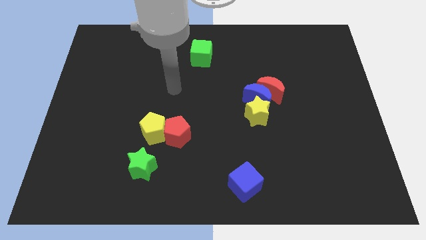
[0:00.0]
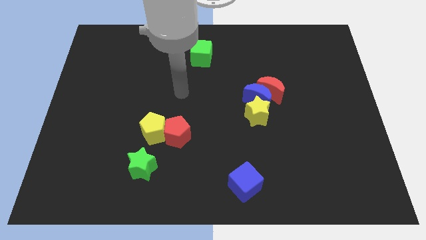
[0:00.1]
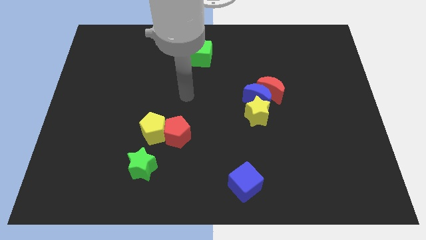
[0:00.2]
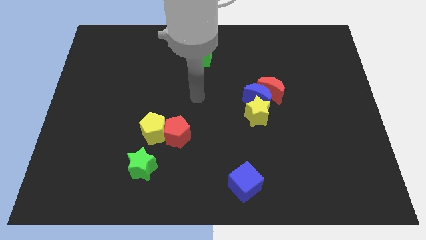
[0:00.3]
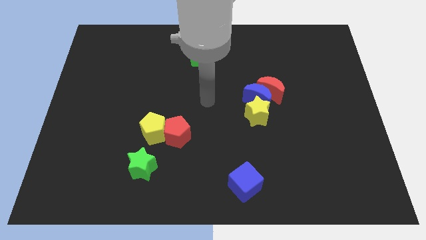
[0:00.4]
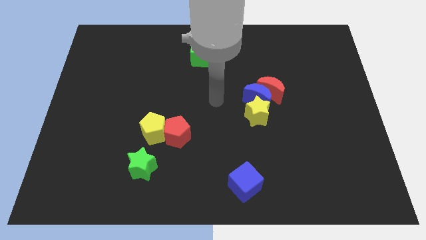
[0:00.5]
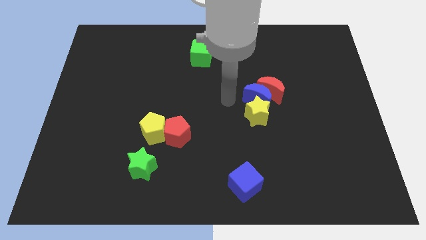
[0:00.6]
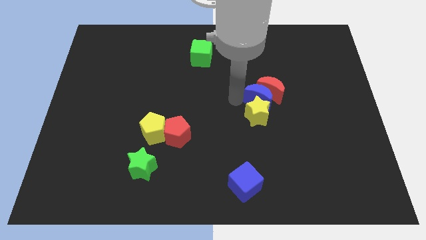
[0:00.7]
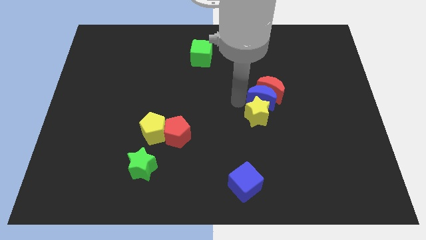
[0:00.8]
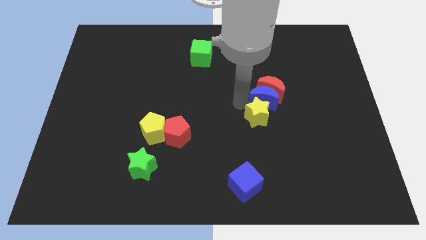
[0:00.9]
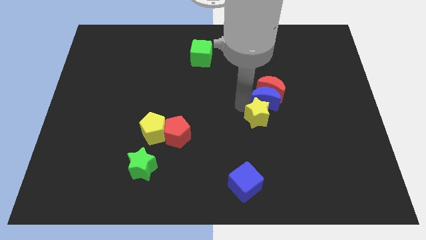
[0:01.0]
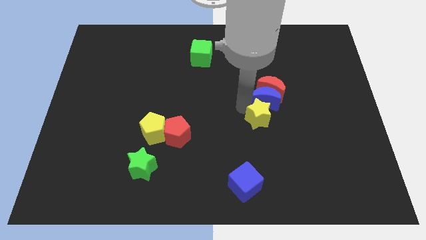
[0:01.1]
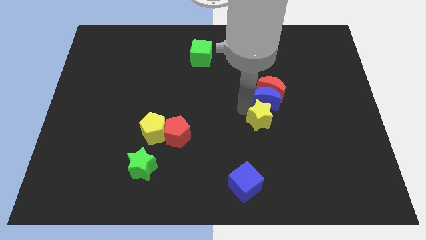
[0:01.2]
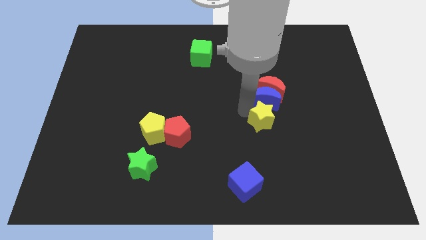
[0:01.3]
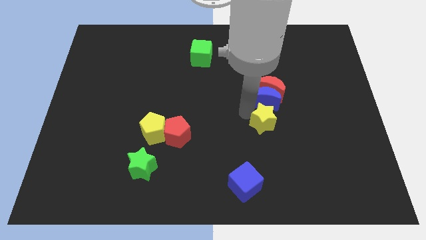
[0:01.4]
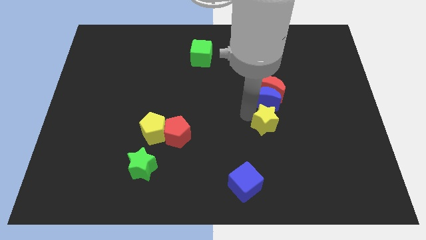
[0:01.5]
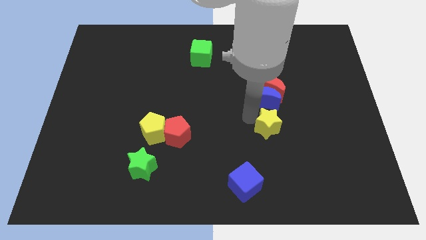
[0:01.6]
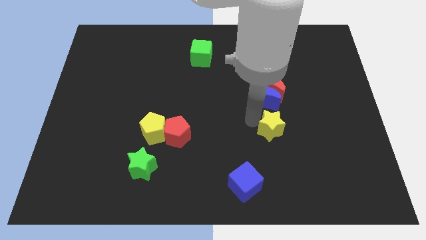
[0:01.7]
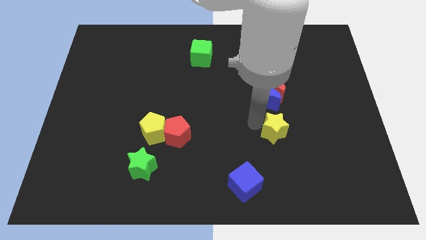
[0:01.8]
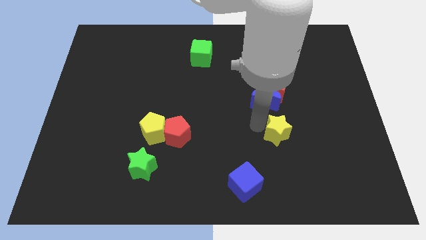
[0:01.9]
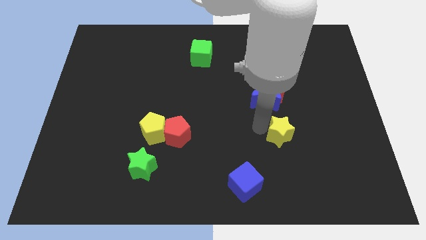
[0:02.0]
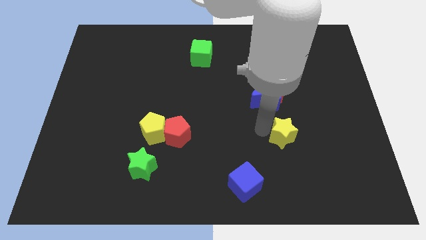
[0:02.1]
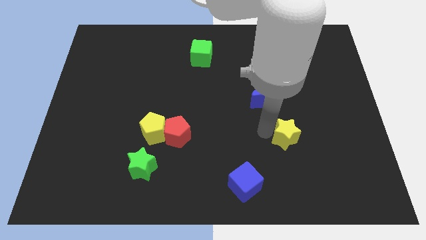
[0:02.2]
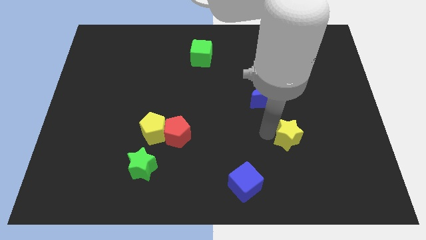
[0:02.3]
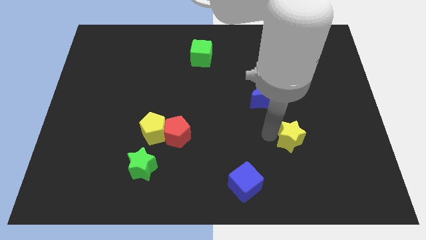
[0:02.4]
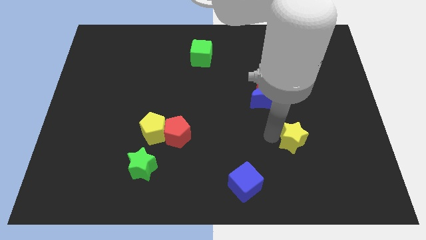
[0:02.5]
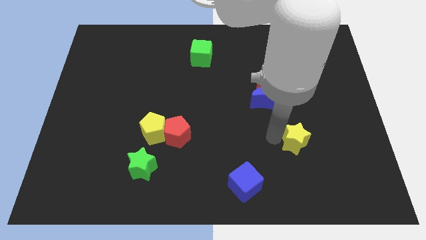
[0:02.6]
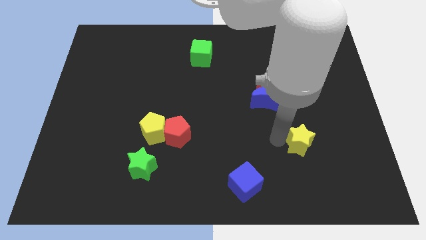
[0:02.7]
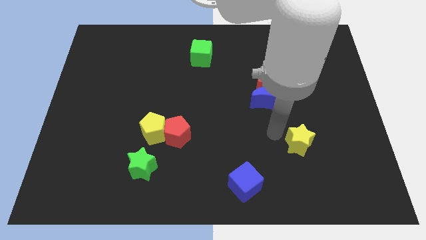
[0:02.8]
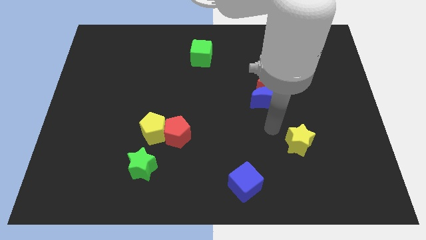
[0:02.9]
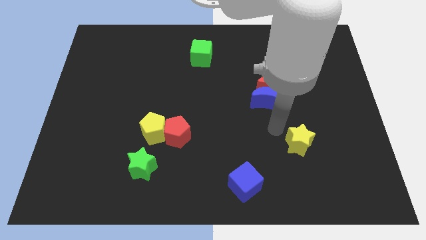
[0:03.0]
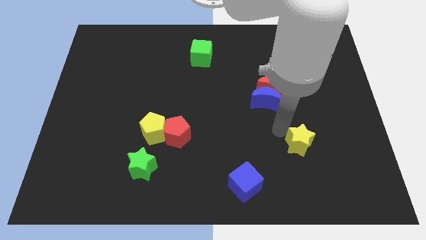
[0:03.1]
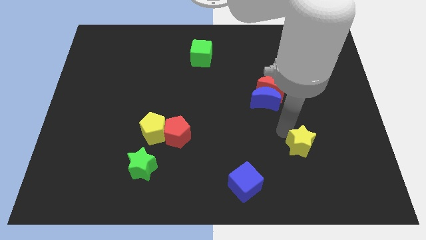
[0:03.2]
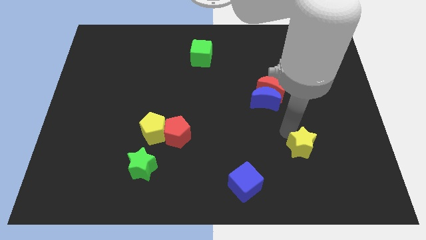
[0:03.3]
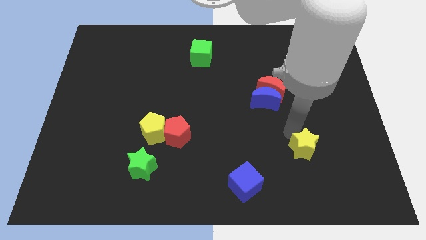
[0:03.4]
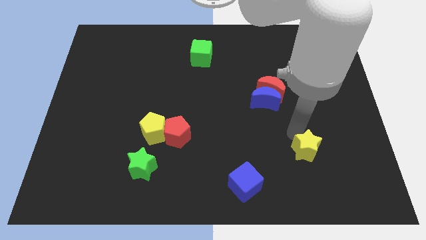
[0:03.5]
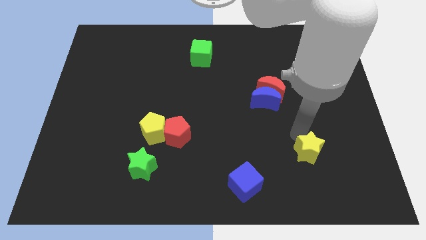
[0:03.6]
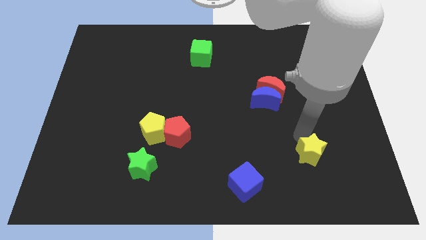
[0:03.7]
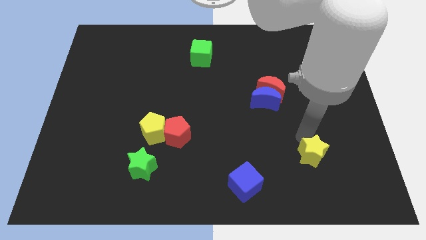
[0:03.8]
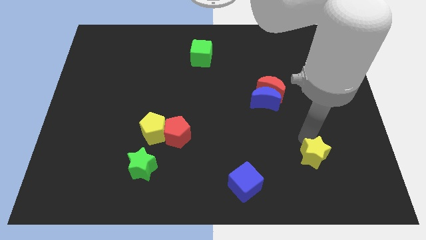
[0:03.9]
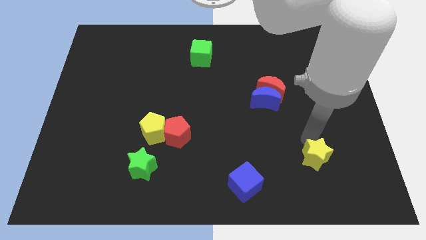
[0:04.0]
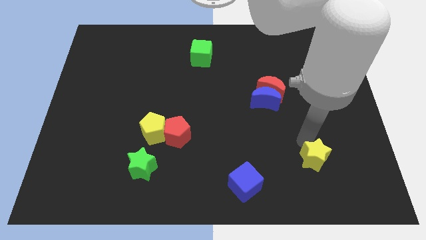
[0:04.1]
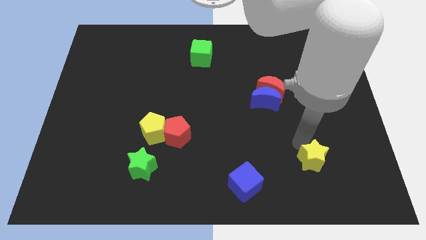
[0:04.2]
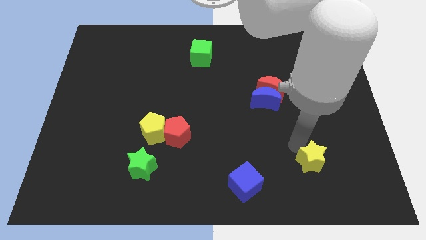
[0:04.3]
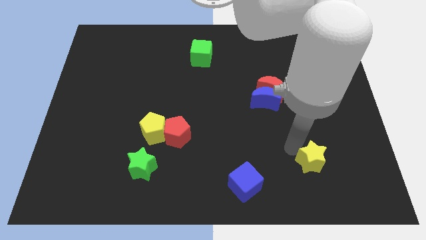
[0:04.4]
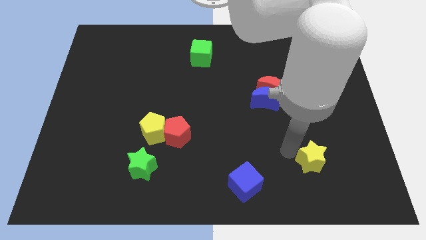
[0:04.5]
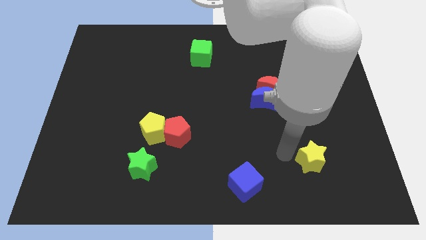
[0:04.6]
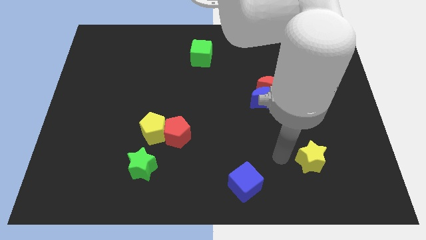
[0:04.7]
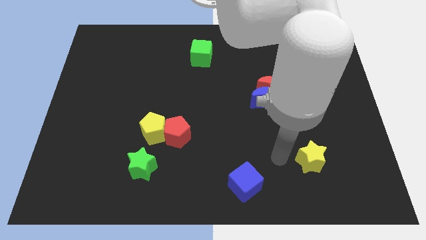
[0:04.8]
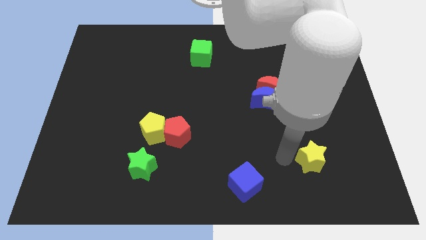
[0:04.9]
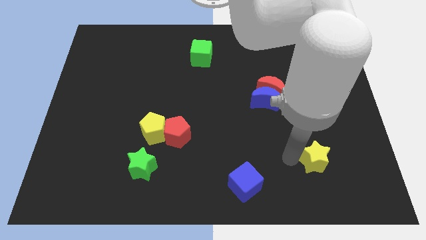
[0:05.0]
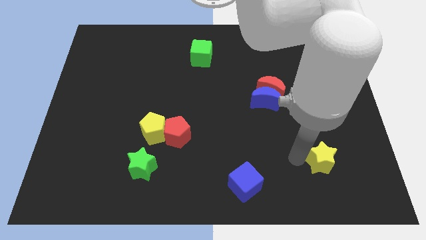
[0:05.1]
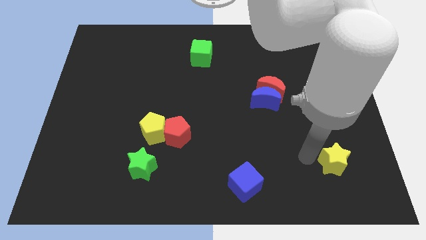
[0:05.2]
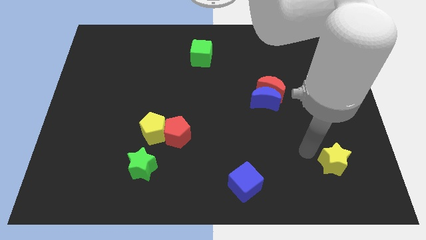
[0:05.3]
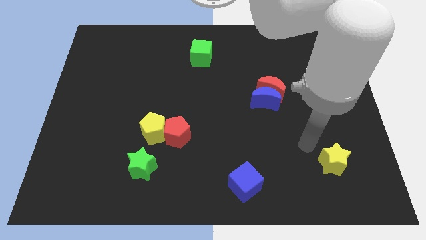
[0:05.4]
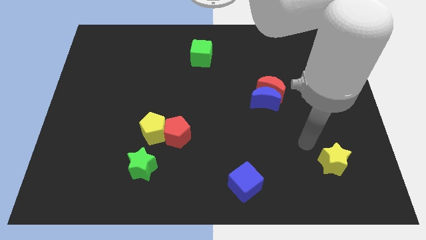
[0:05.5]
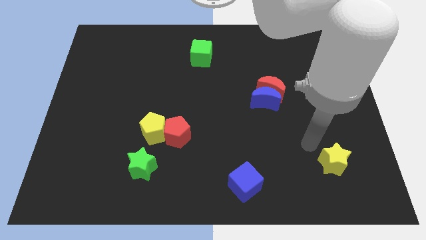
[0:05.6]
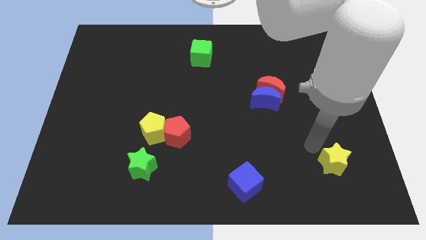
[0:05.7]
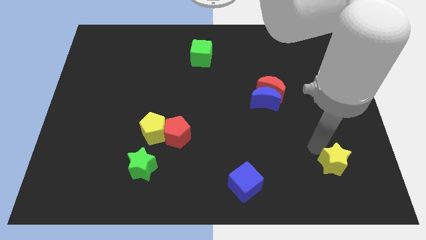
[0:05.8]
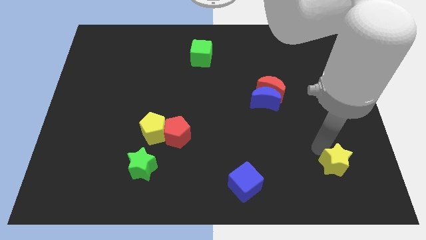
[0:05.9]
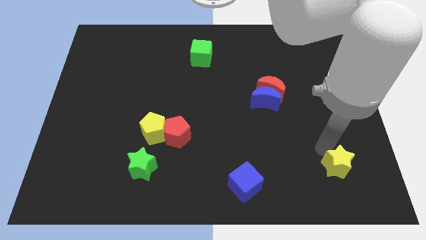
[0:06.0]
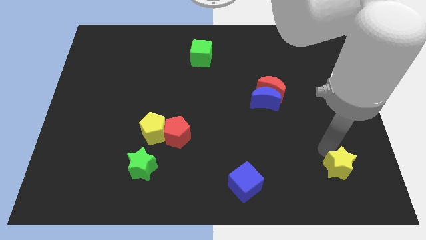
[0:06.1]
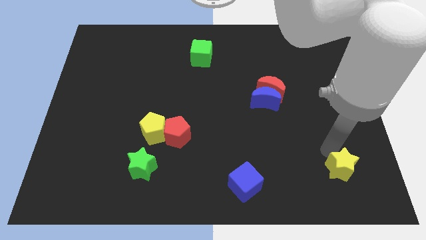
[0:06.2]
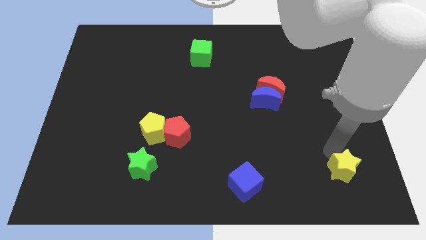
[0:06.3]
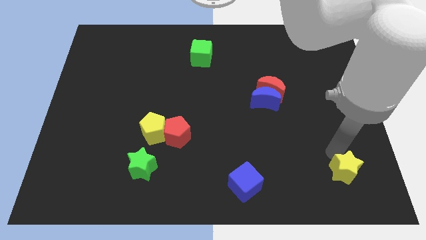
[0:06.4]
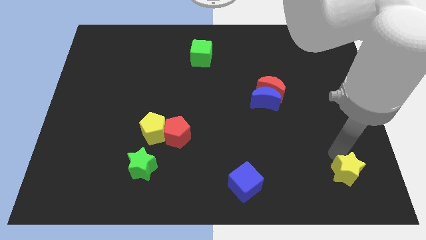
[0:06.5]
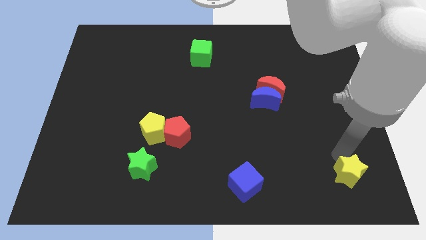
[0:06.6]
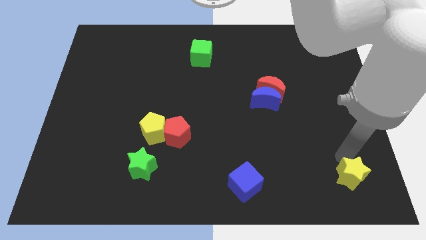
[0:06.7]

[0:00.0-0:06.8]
push the yellow star to the bottom right corner
